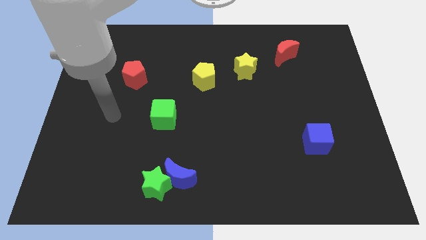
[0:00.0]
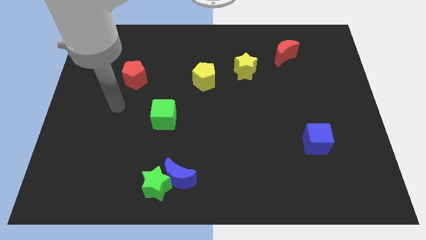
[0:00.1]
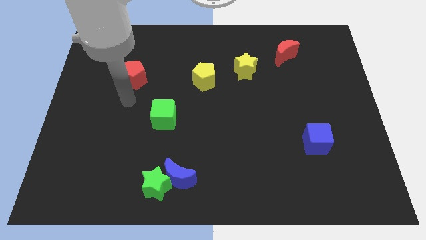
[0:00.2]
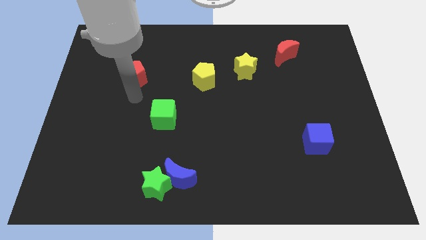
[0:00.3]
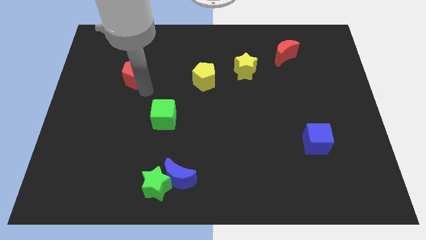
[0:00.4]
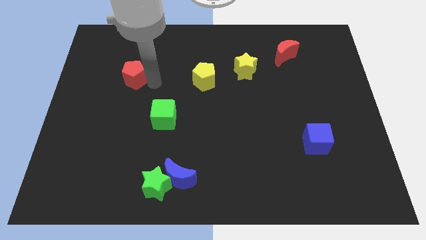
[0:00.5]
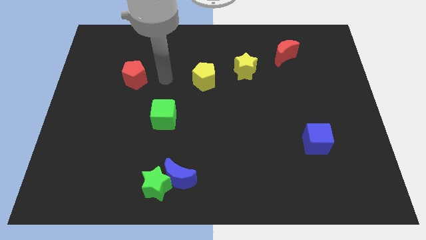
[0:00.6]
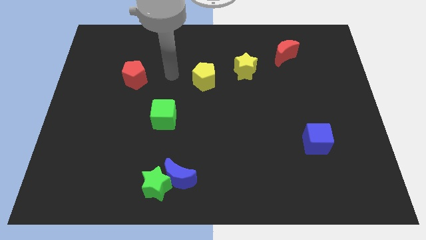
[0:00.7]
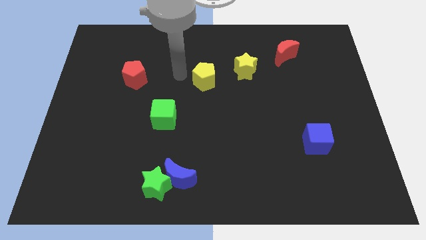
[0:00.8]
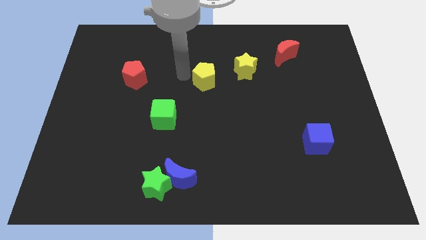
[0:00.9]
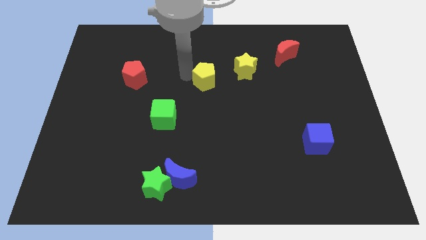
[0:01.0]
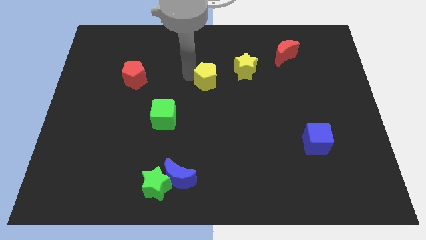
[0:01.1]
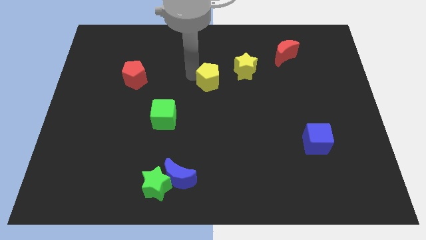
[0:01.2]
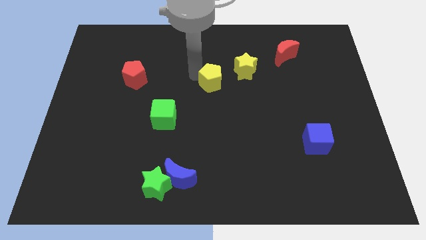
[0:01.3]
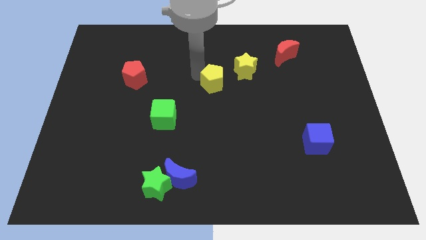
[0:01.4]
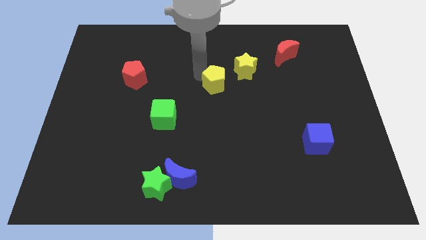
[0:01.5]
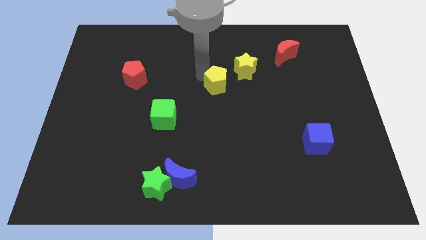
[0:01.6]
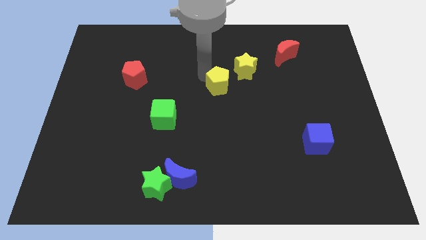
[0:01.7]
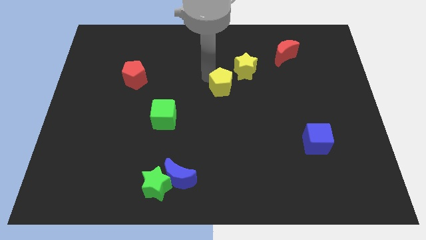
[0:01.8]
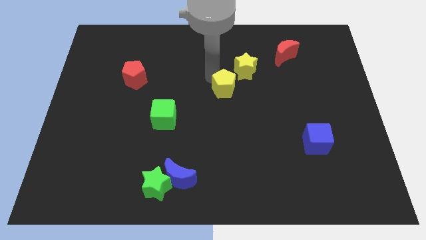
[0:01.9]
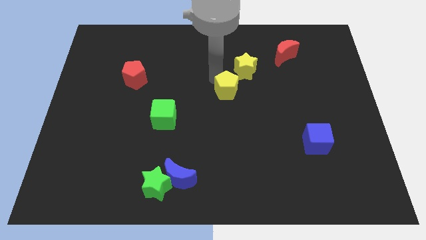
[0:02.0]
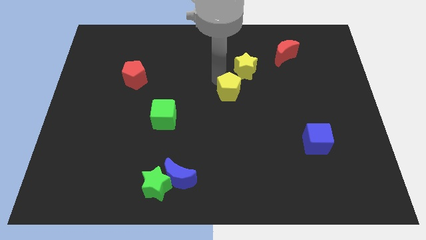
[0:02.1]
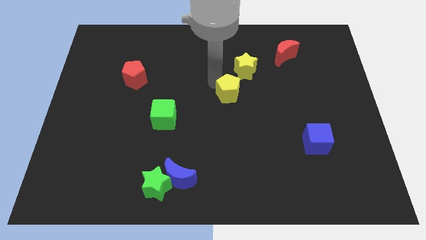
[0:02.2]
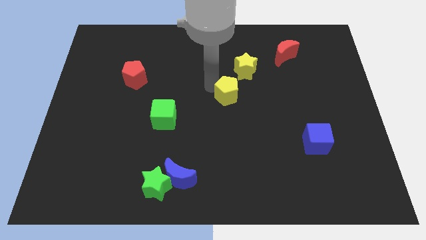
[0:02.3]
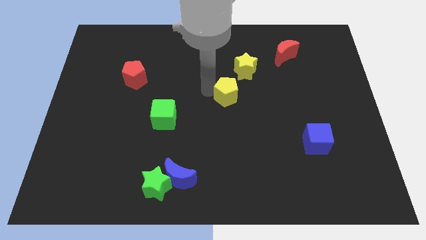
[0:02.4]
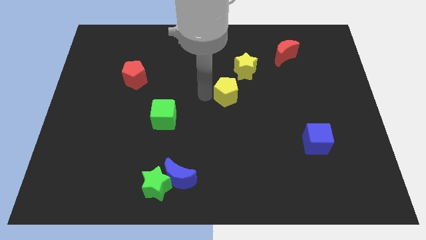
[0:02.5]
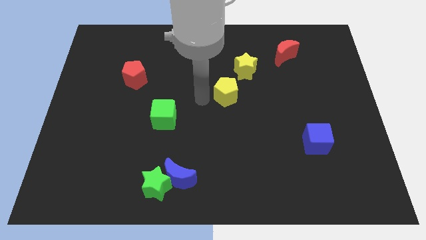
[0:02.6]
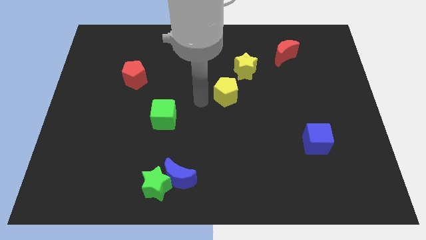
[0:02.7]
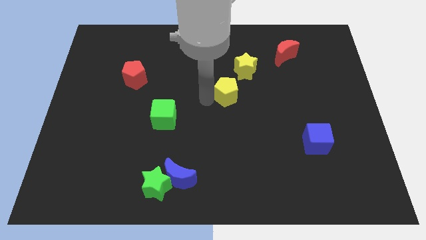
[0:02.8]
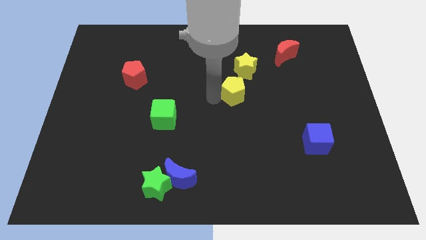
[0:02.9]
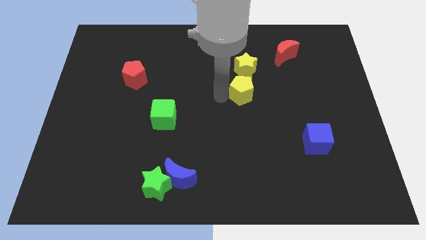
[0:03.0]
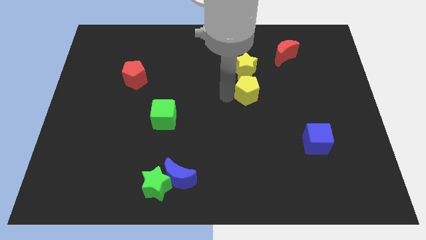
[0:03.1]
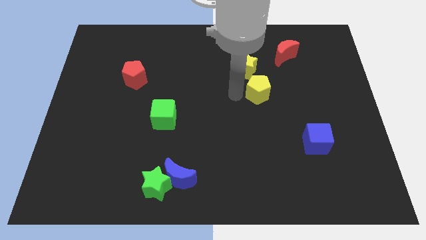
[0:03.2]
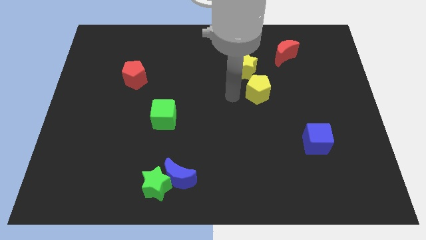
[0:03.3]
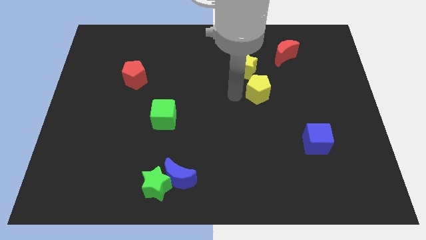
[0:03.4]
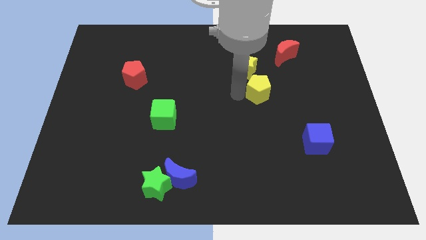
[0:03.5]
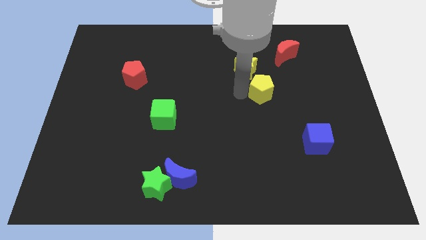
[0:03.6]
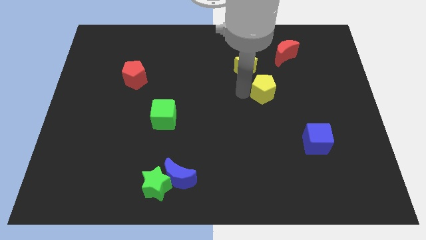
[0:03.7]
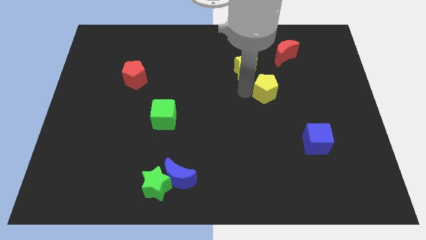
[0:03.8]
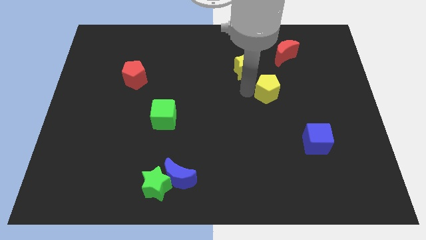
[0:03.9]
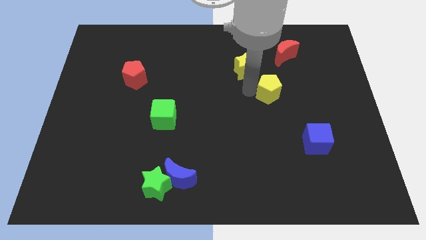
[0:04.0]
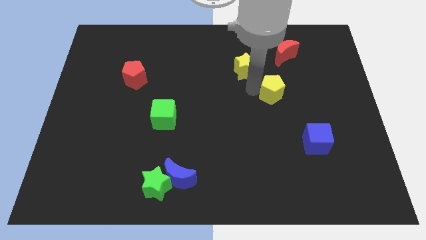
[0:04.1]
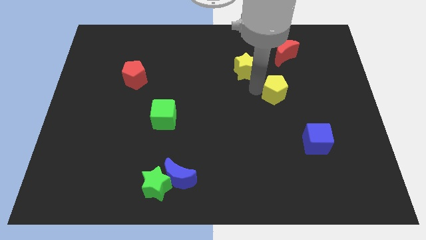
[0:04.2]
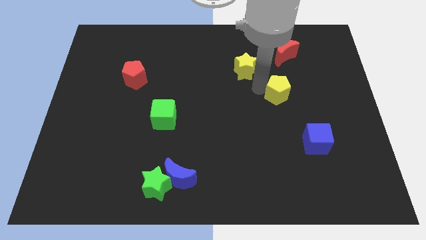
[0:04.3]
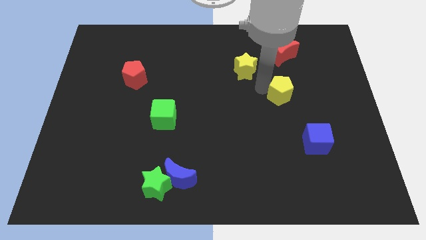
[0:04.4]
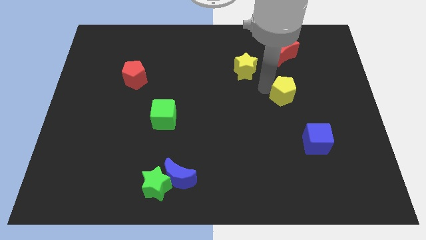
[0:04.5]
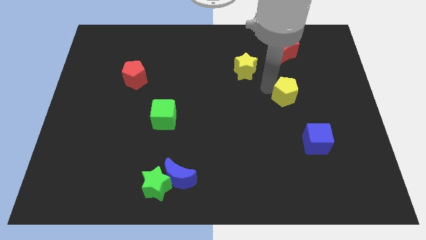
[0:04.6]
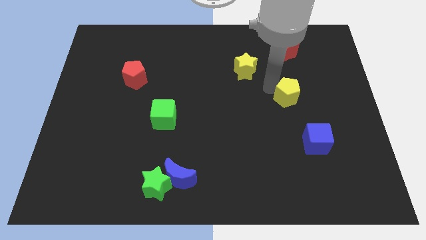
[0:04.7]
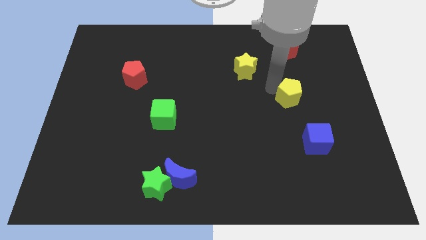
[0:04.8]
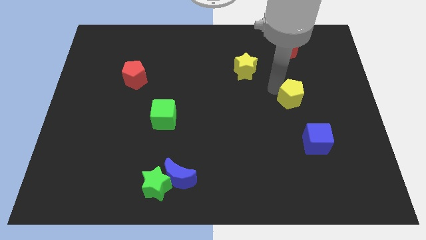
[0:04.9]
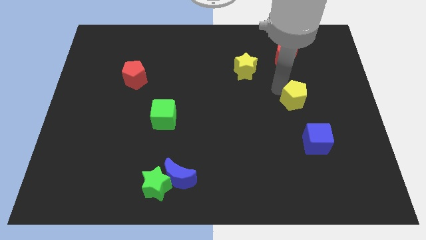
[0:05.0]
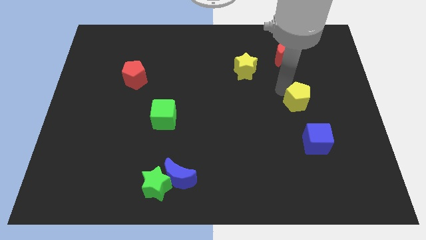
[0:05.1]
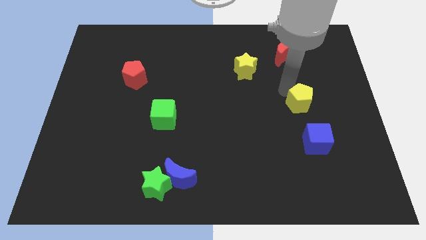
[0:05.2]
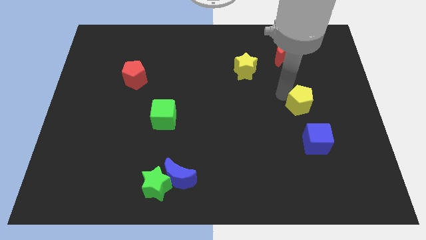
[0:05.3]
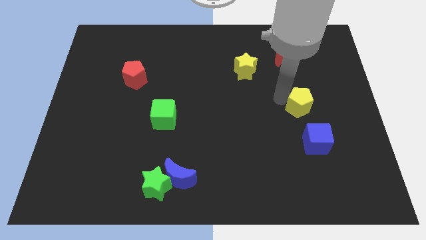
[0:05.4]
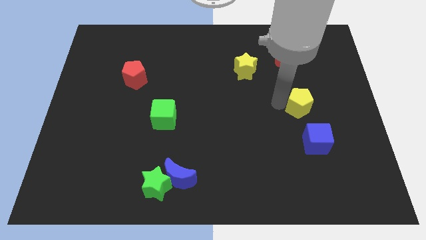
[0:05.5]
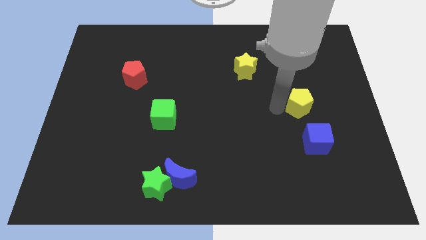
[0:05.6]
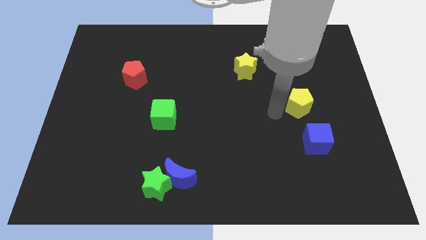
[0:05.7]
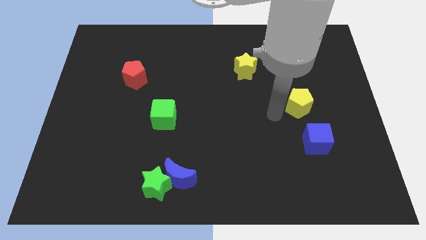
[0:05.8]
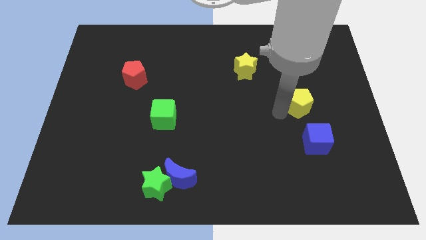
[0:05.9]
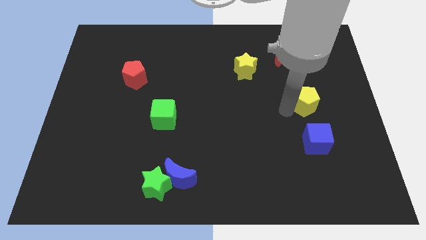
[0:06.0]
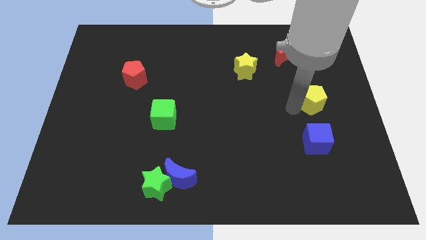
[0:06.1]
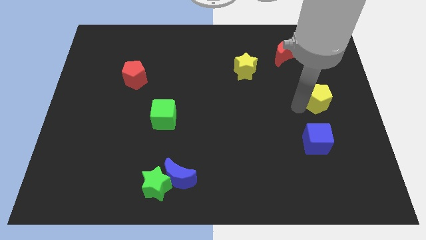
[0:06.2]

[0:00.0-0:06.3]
put the yellow pentagon to the center right
